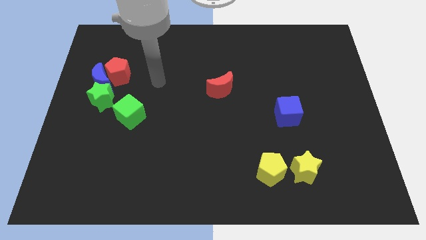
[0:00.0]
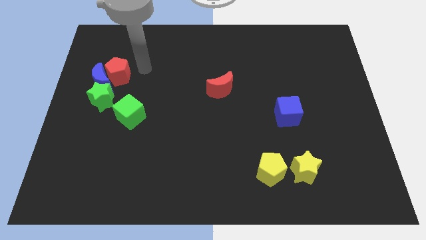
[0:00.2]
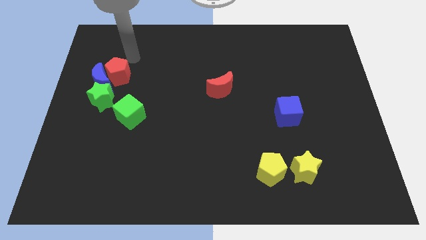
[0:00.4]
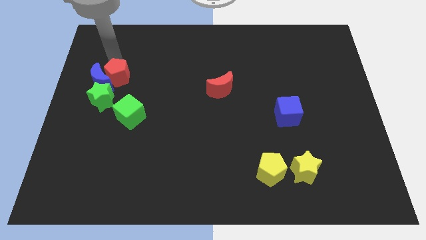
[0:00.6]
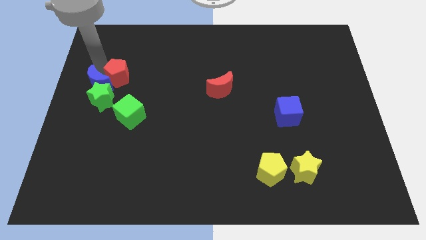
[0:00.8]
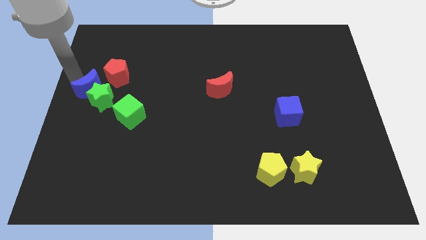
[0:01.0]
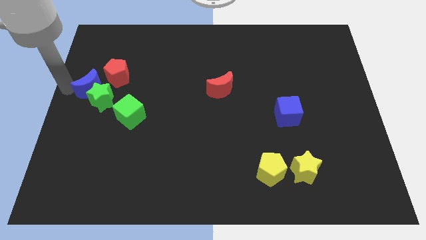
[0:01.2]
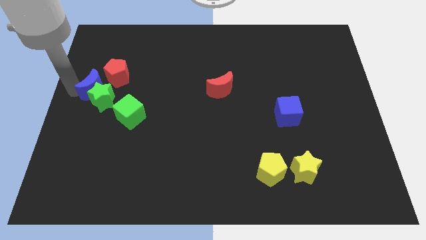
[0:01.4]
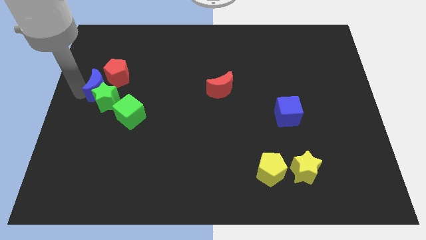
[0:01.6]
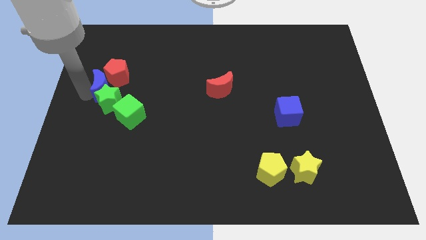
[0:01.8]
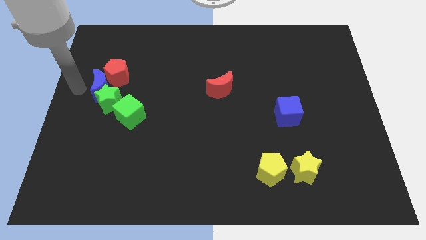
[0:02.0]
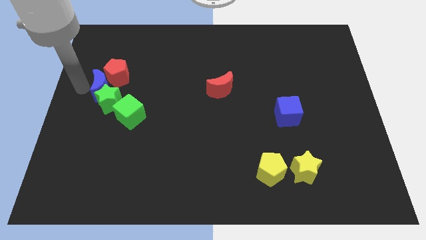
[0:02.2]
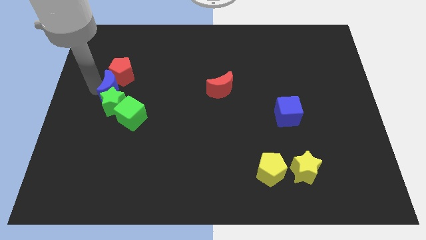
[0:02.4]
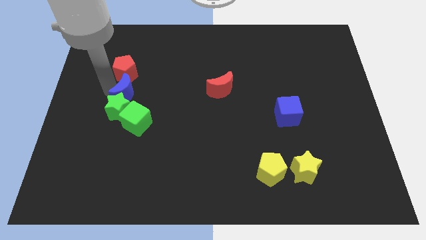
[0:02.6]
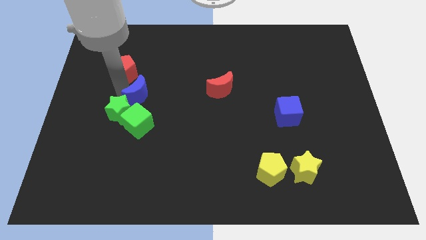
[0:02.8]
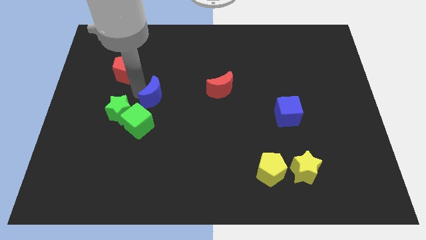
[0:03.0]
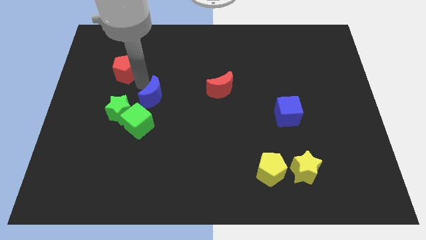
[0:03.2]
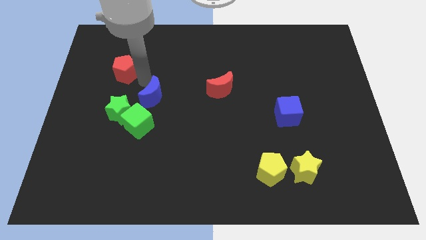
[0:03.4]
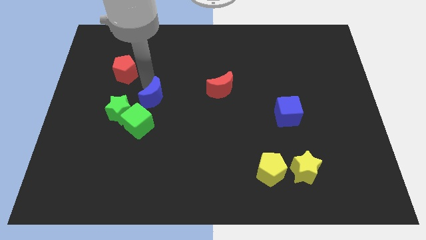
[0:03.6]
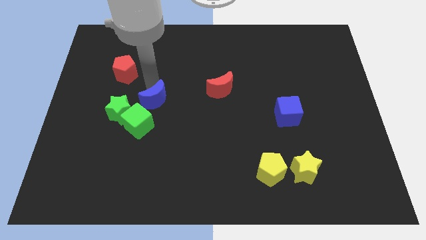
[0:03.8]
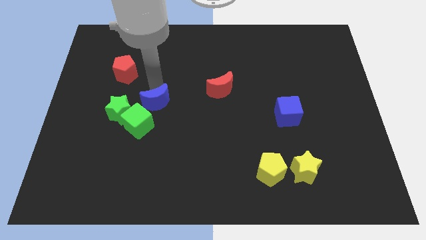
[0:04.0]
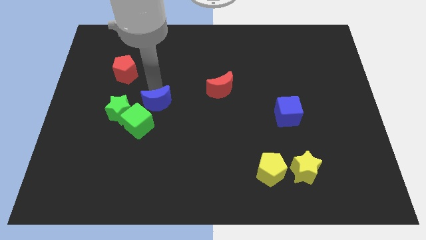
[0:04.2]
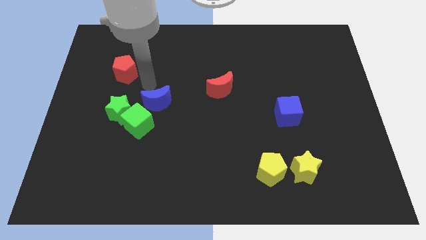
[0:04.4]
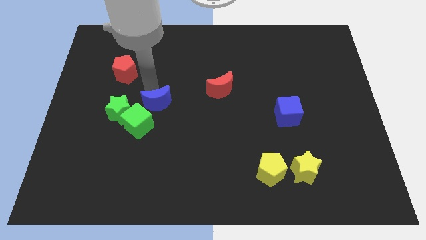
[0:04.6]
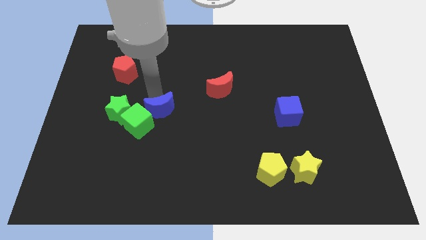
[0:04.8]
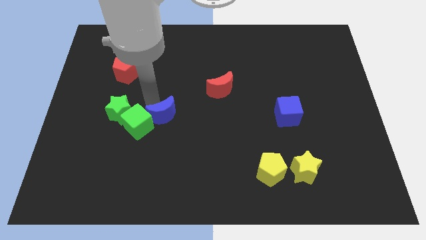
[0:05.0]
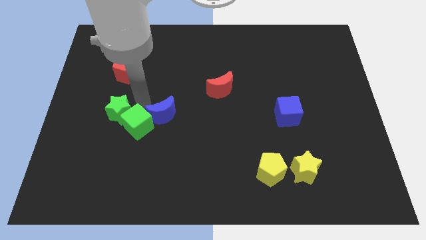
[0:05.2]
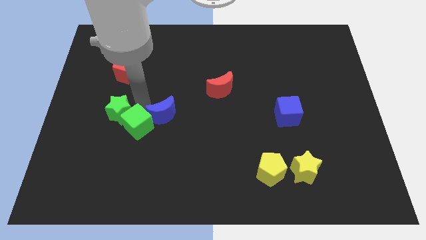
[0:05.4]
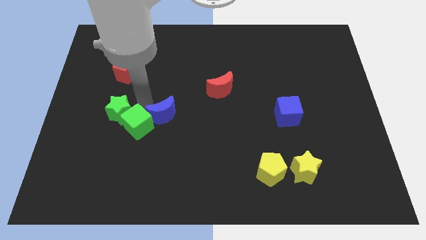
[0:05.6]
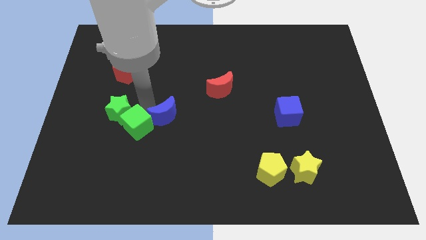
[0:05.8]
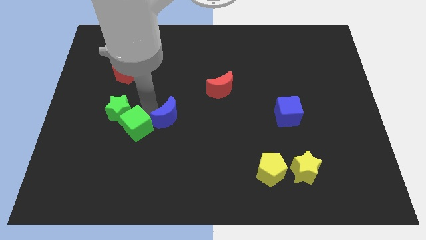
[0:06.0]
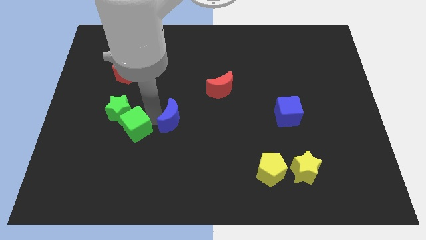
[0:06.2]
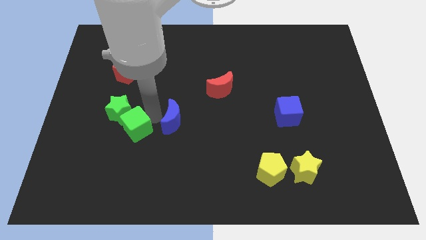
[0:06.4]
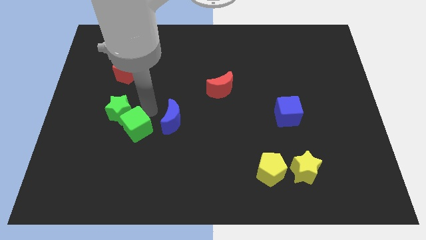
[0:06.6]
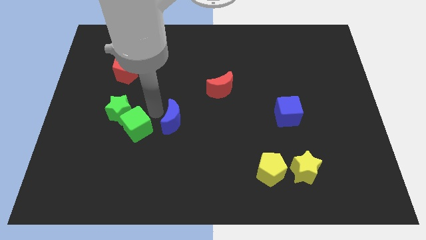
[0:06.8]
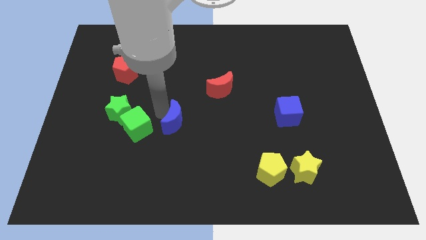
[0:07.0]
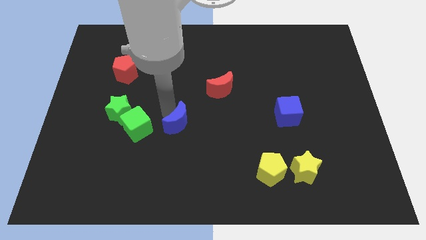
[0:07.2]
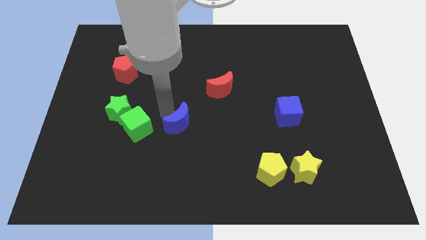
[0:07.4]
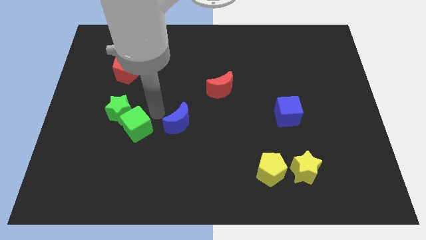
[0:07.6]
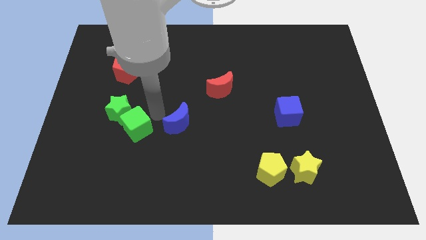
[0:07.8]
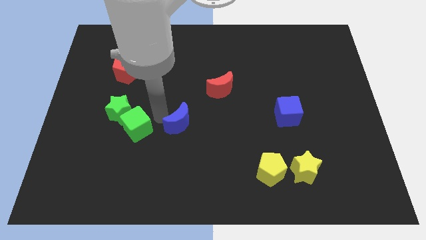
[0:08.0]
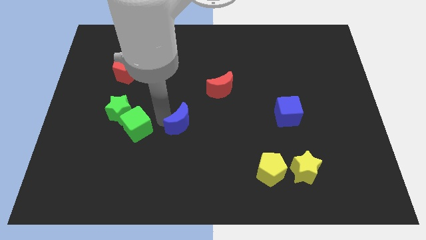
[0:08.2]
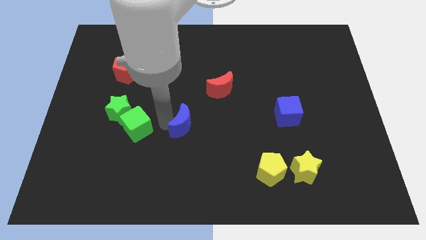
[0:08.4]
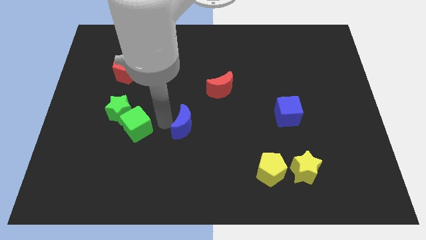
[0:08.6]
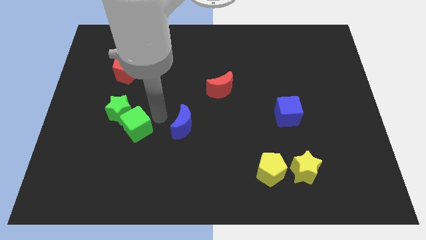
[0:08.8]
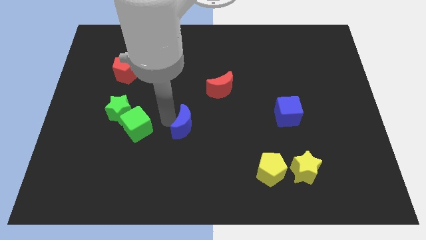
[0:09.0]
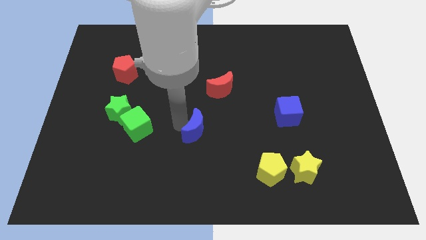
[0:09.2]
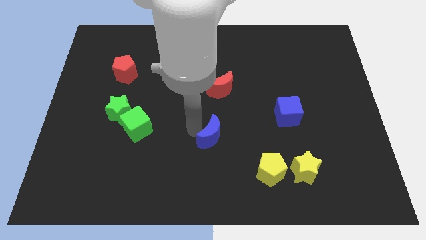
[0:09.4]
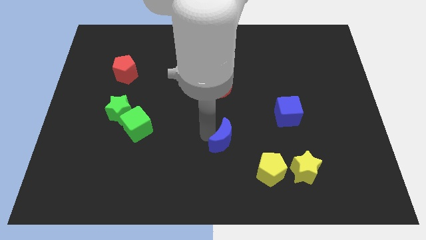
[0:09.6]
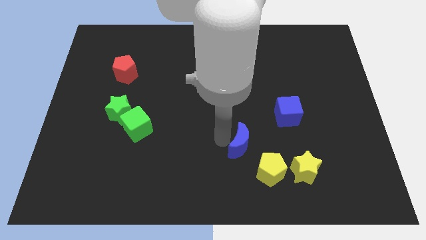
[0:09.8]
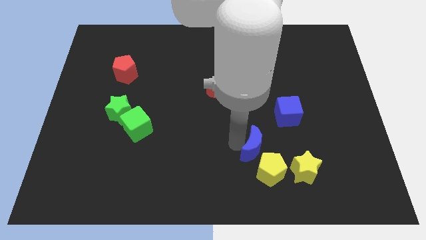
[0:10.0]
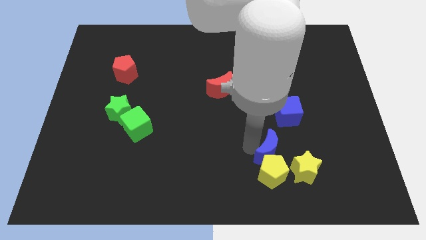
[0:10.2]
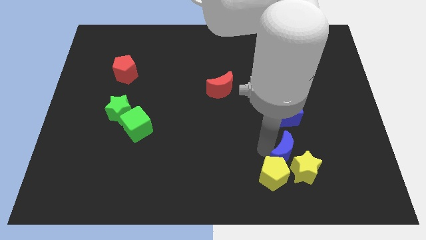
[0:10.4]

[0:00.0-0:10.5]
put the blue moon next to the yellow star

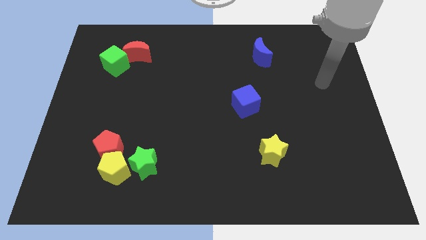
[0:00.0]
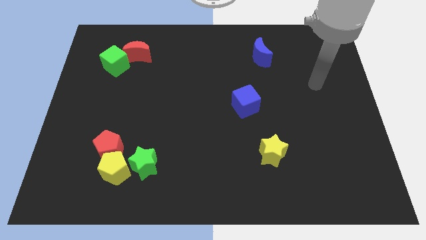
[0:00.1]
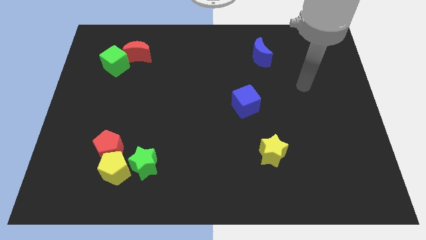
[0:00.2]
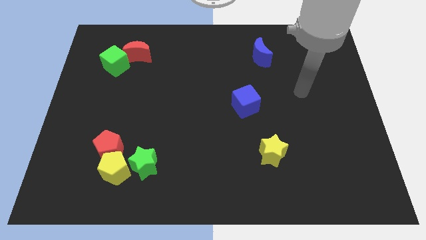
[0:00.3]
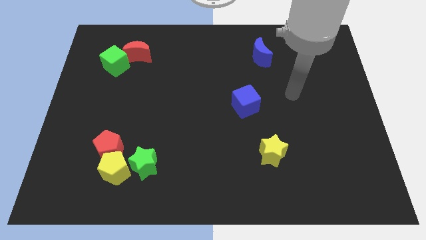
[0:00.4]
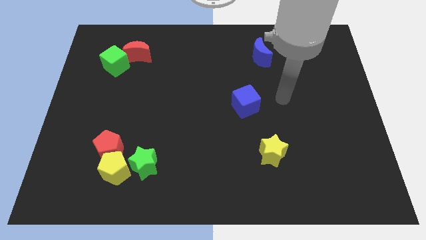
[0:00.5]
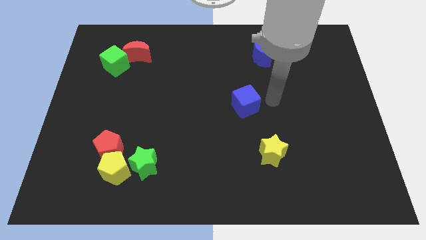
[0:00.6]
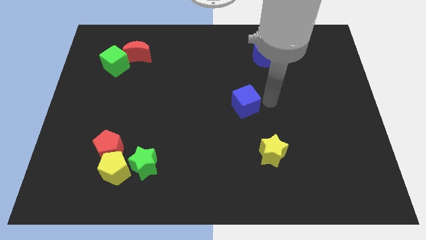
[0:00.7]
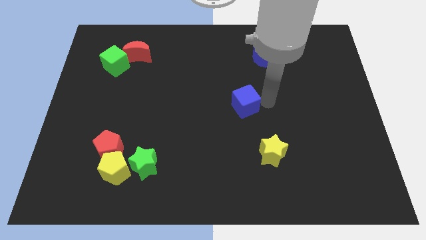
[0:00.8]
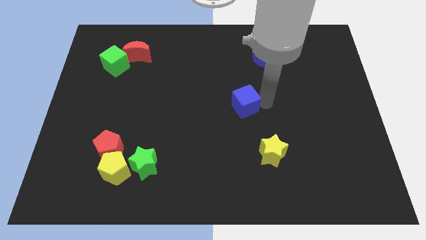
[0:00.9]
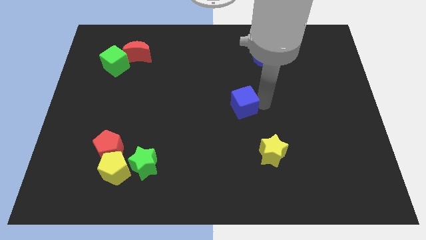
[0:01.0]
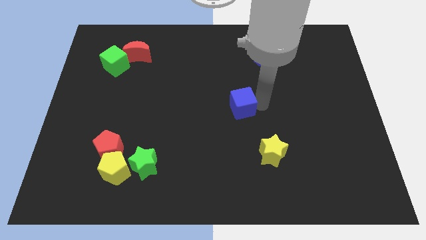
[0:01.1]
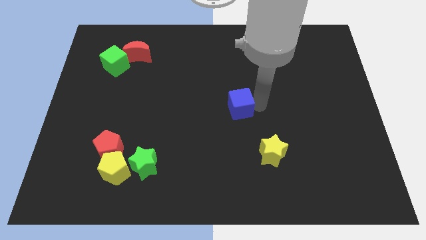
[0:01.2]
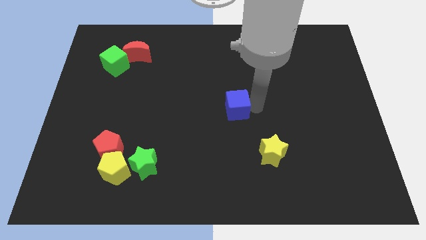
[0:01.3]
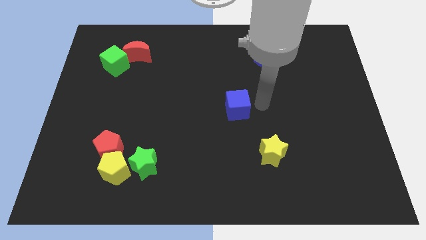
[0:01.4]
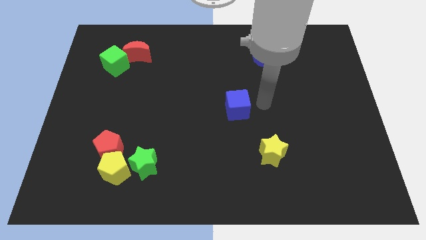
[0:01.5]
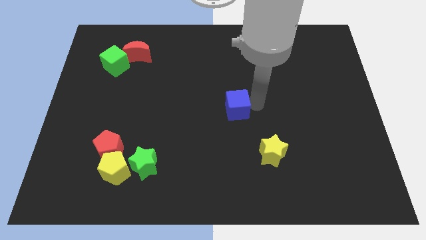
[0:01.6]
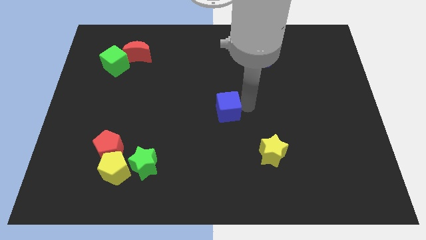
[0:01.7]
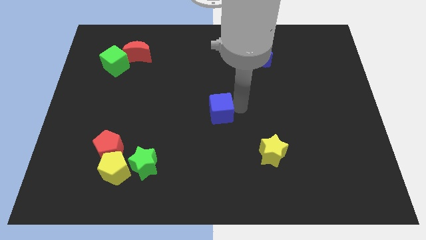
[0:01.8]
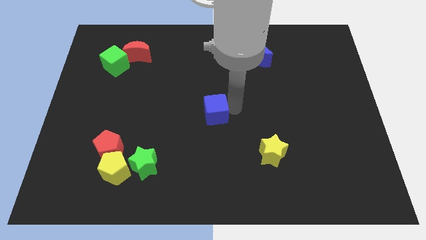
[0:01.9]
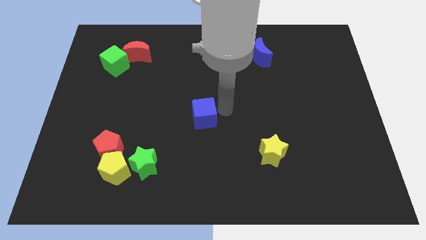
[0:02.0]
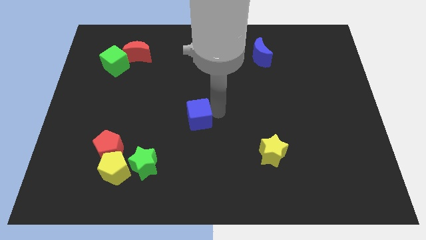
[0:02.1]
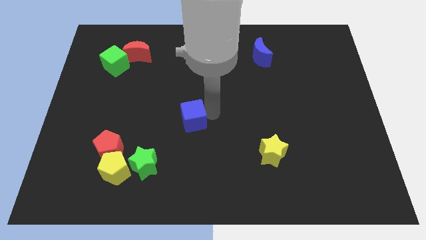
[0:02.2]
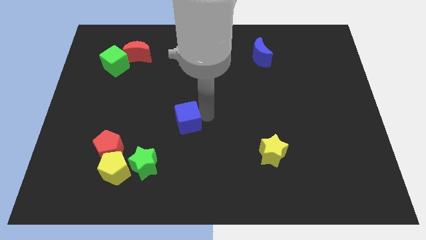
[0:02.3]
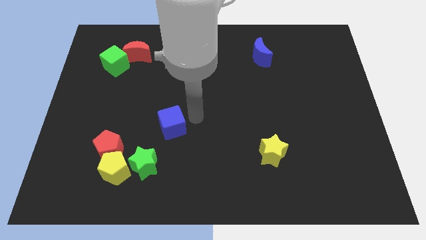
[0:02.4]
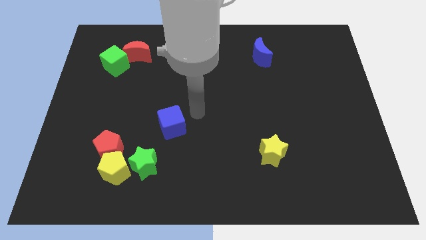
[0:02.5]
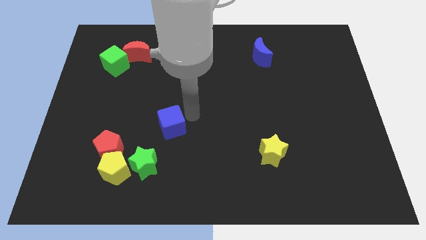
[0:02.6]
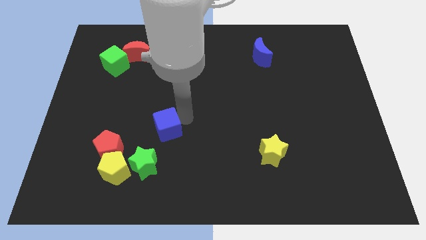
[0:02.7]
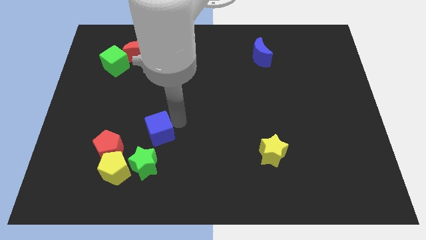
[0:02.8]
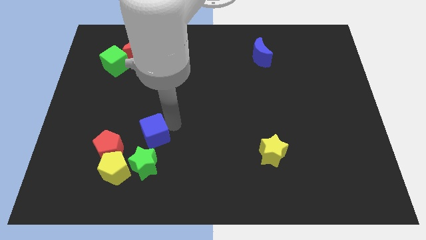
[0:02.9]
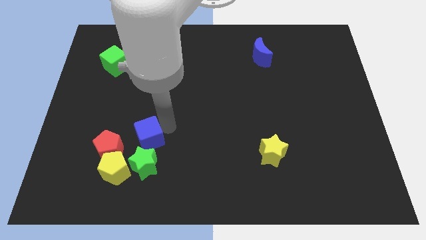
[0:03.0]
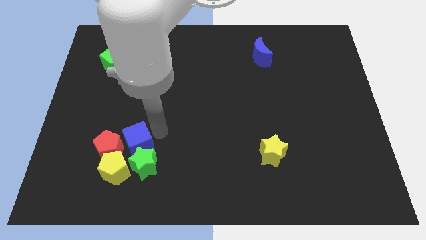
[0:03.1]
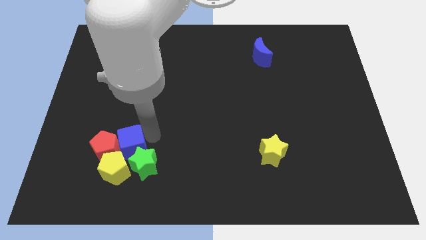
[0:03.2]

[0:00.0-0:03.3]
move the blue cube towards the red pentagon
